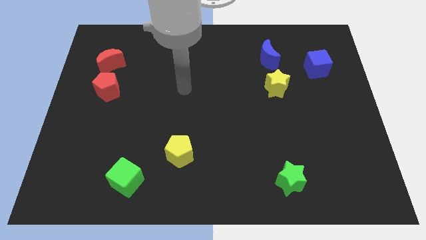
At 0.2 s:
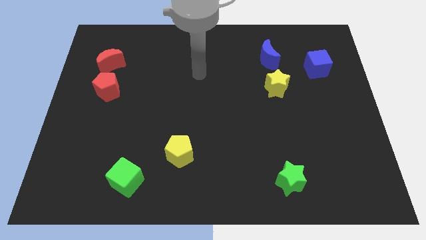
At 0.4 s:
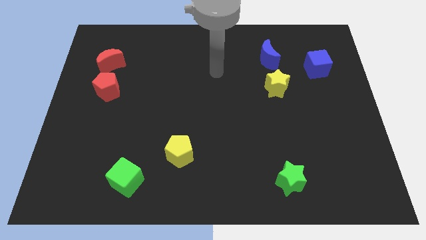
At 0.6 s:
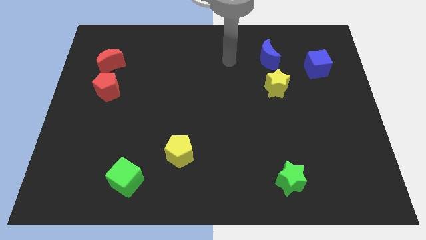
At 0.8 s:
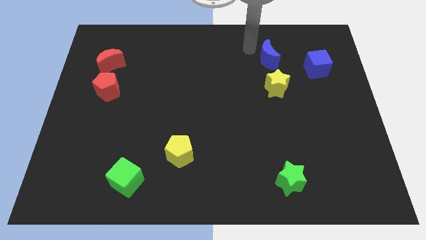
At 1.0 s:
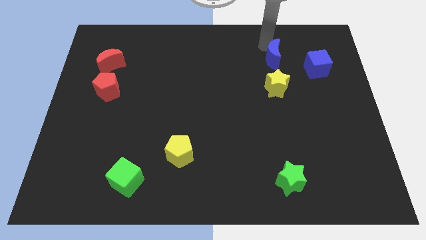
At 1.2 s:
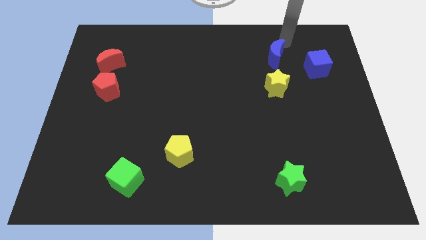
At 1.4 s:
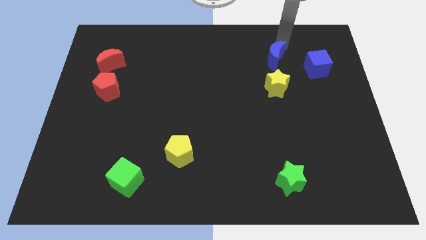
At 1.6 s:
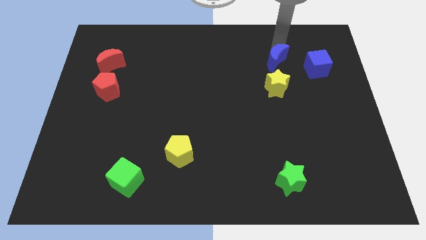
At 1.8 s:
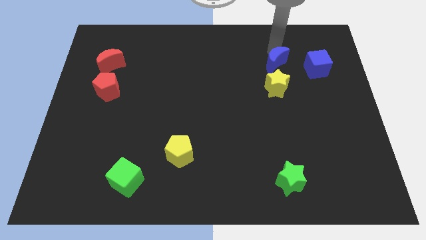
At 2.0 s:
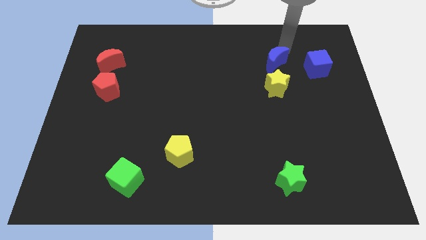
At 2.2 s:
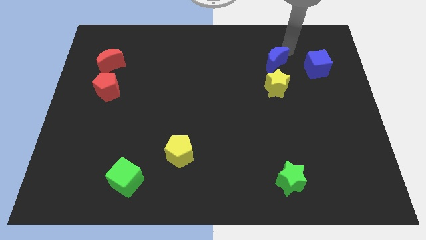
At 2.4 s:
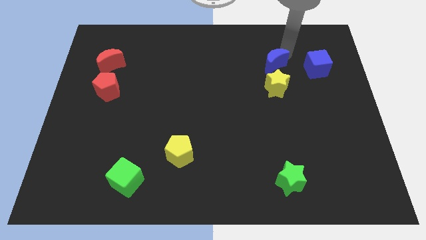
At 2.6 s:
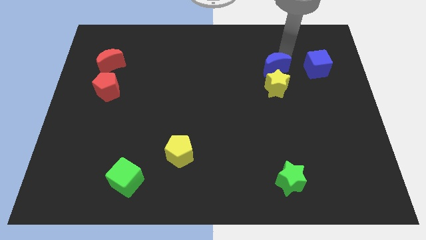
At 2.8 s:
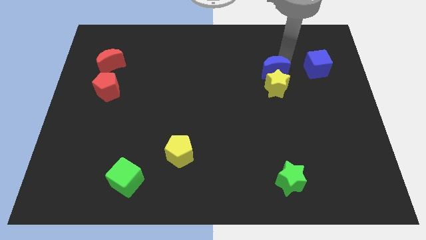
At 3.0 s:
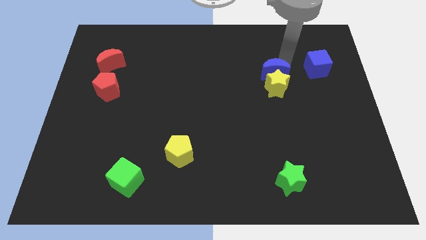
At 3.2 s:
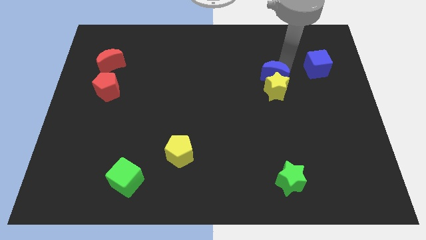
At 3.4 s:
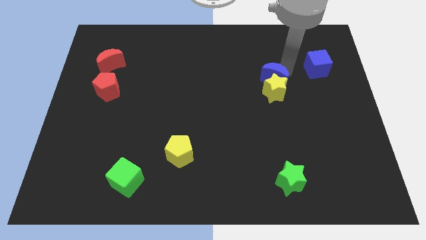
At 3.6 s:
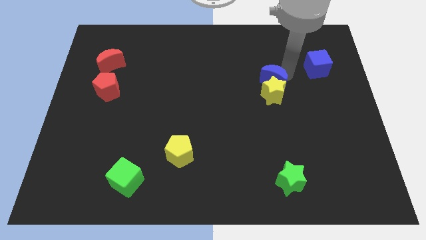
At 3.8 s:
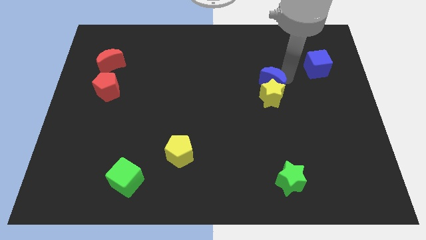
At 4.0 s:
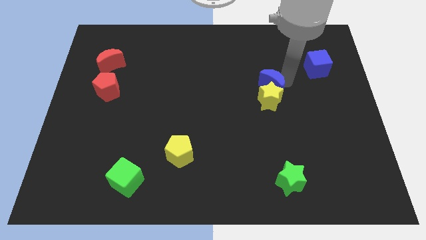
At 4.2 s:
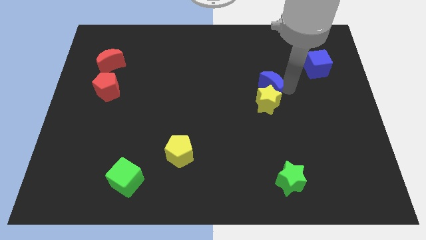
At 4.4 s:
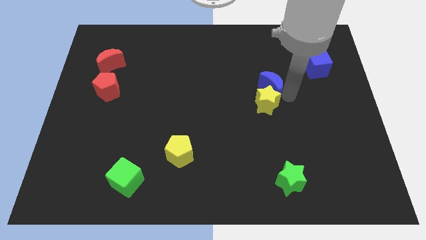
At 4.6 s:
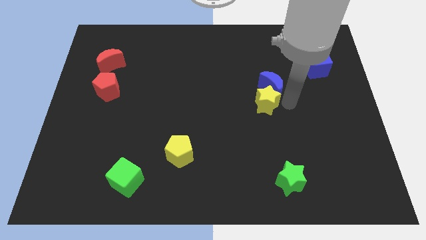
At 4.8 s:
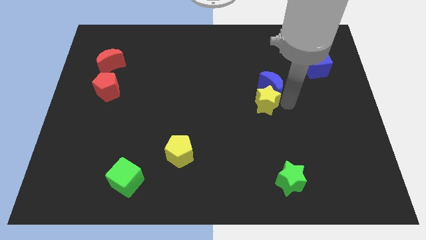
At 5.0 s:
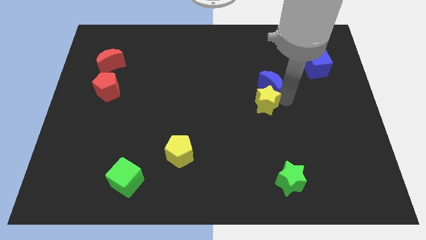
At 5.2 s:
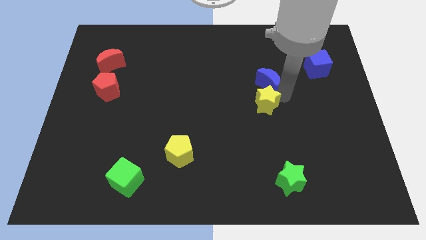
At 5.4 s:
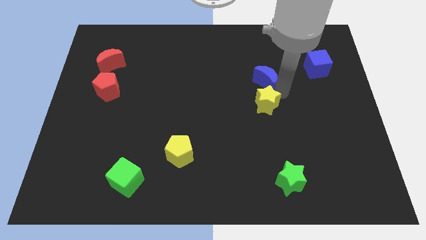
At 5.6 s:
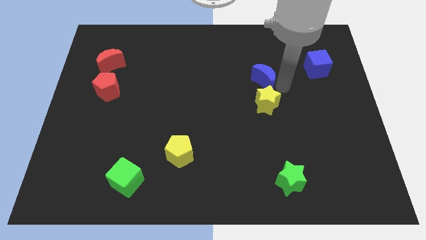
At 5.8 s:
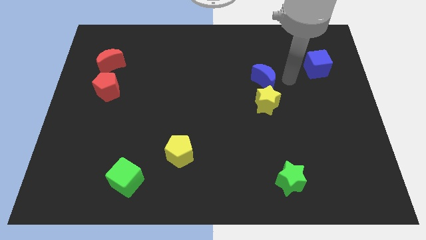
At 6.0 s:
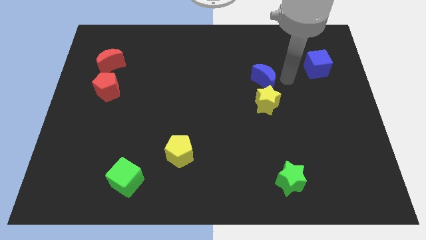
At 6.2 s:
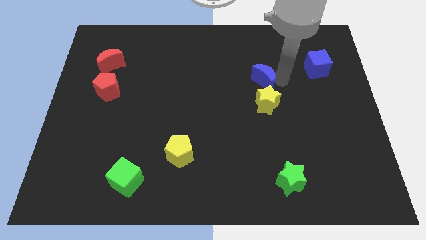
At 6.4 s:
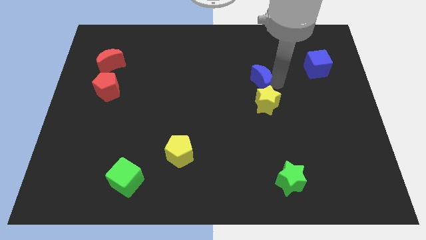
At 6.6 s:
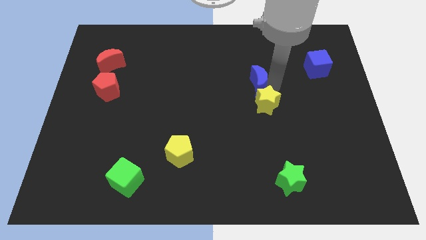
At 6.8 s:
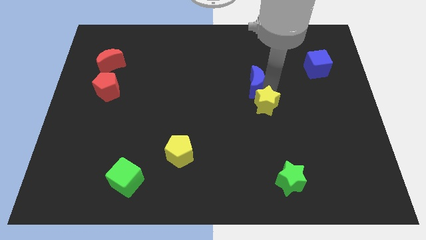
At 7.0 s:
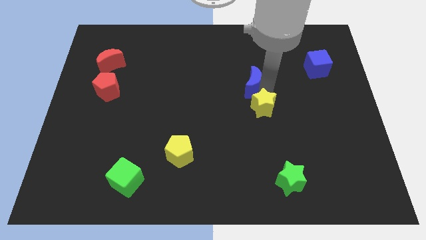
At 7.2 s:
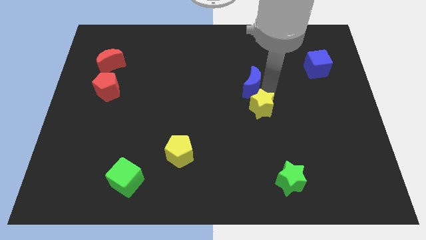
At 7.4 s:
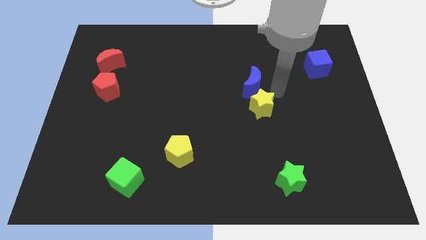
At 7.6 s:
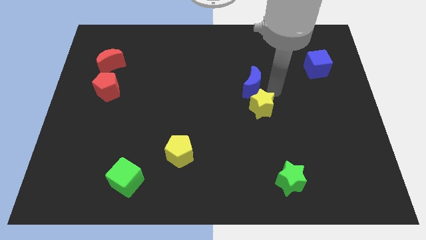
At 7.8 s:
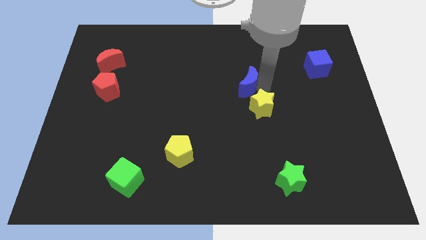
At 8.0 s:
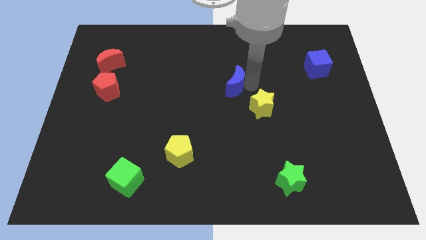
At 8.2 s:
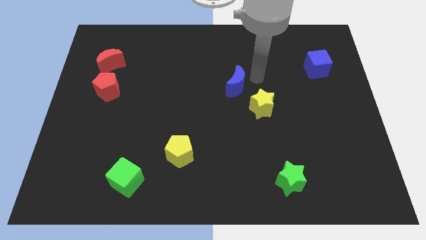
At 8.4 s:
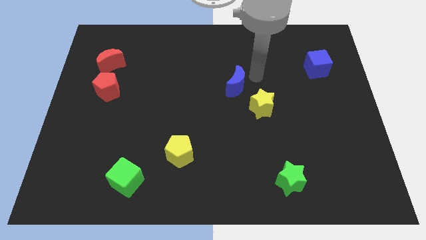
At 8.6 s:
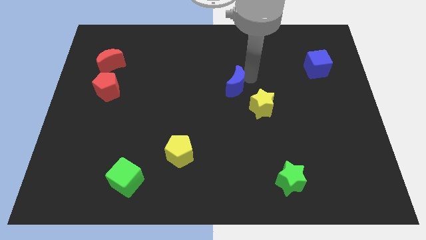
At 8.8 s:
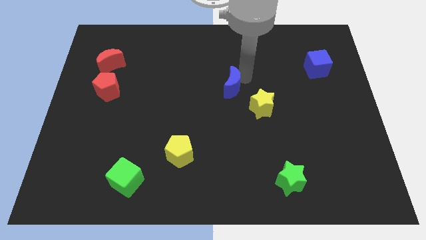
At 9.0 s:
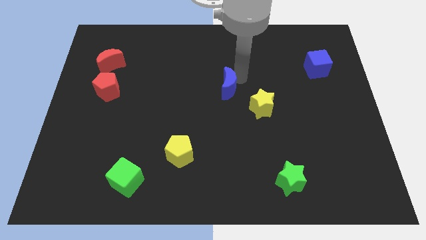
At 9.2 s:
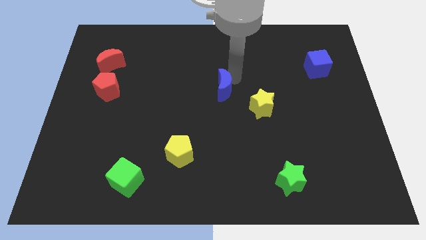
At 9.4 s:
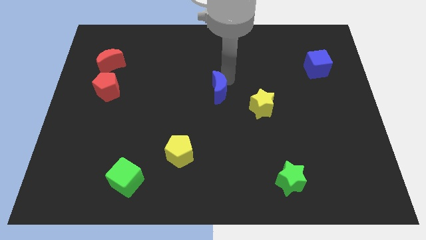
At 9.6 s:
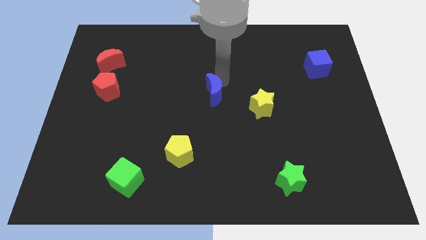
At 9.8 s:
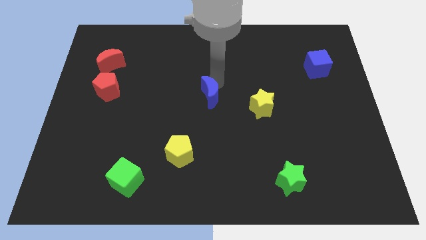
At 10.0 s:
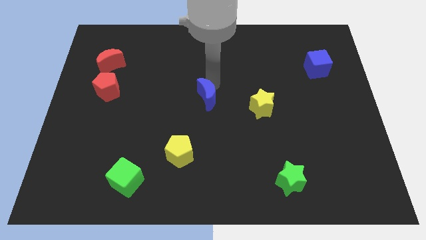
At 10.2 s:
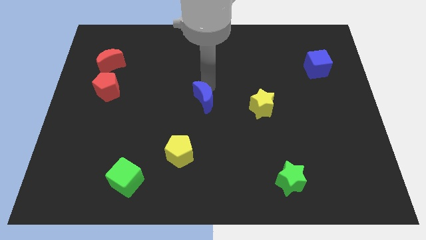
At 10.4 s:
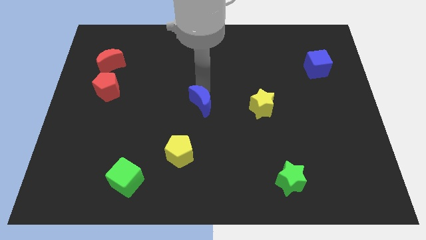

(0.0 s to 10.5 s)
slide the blue moon to the top of the yellow pentagon

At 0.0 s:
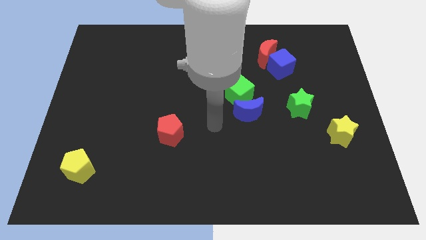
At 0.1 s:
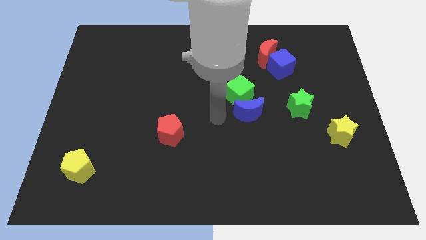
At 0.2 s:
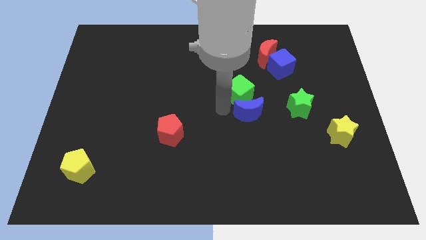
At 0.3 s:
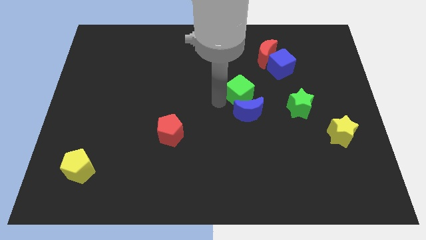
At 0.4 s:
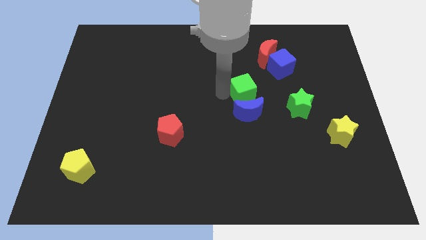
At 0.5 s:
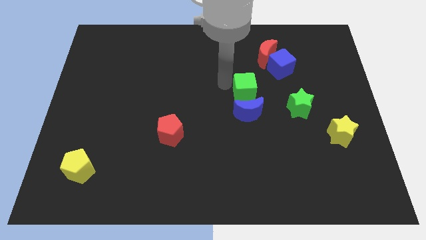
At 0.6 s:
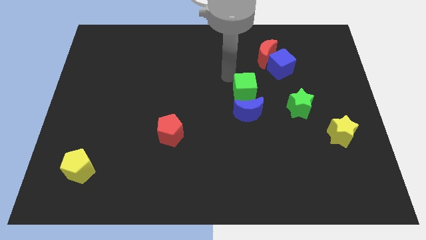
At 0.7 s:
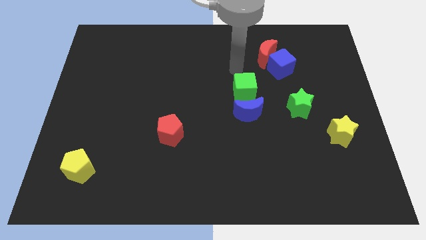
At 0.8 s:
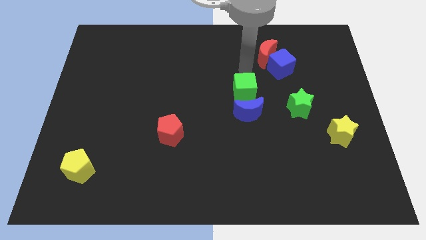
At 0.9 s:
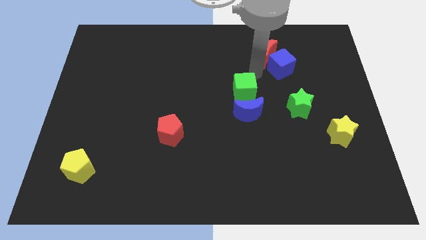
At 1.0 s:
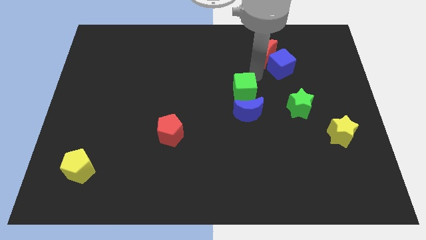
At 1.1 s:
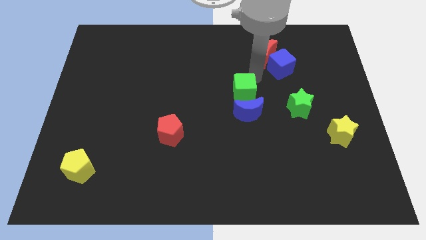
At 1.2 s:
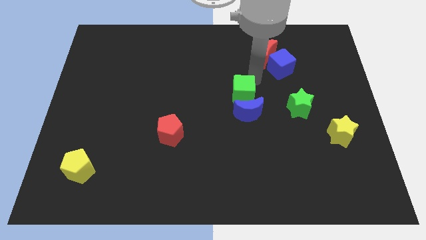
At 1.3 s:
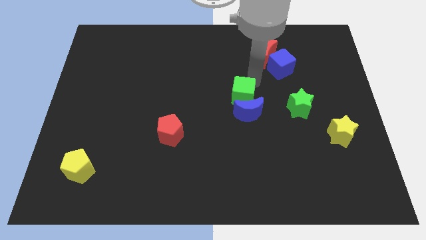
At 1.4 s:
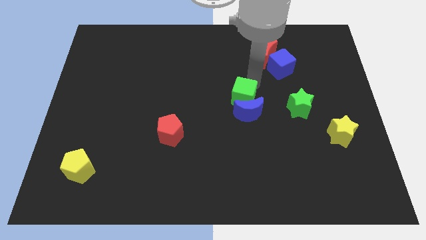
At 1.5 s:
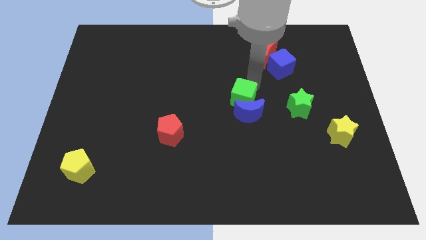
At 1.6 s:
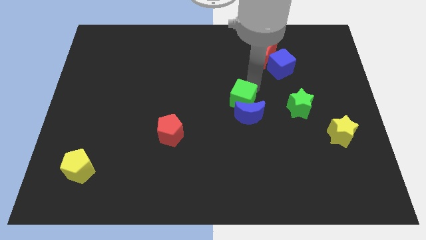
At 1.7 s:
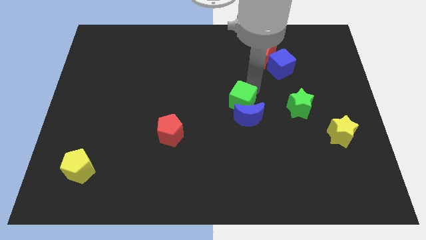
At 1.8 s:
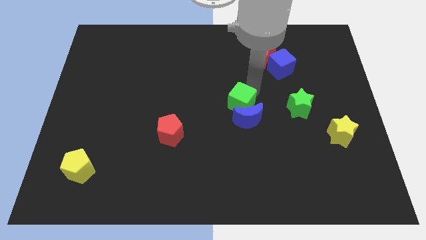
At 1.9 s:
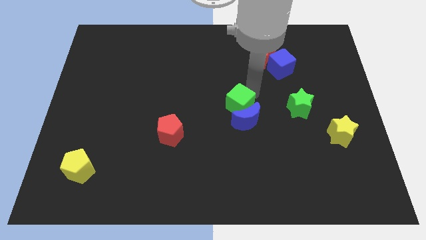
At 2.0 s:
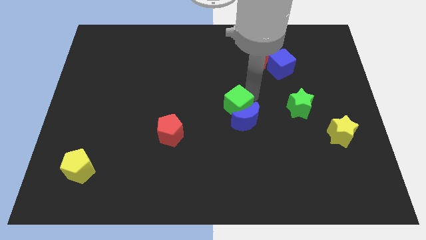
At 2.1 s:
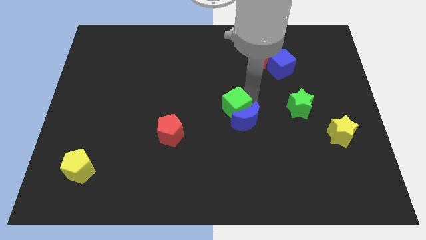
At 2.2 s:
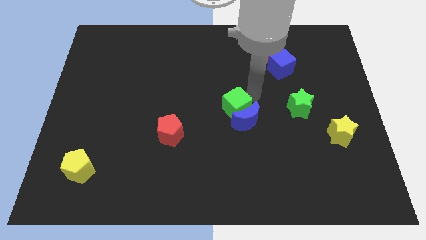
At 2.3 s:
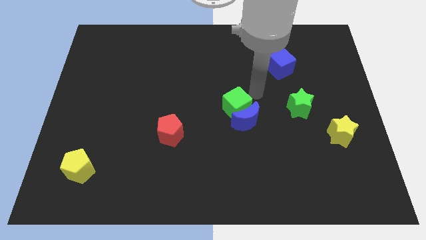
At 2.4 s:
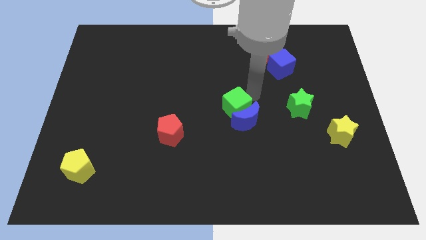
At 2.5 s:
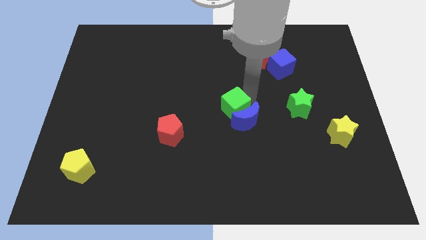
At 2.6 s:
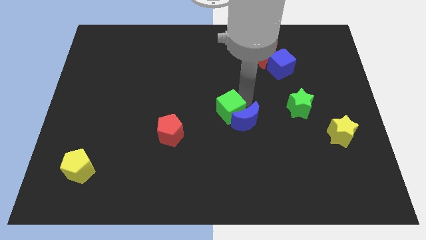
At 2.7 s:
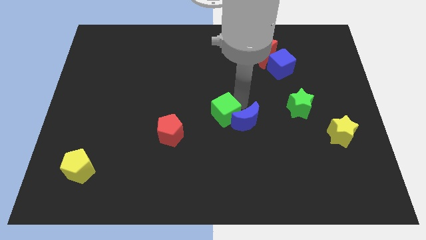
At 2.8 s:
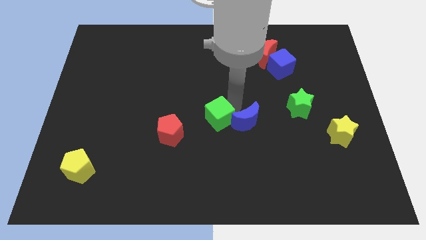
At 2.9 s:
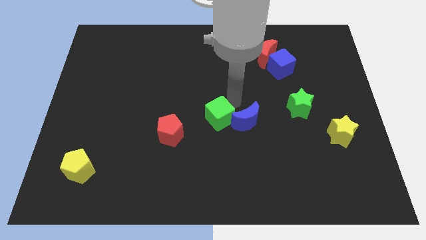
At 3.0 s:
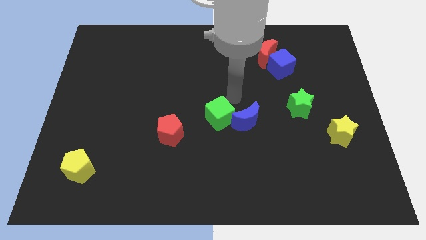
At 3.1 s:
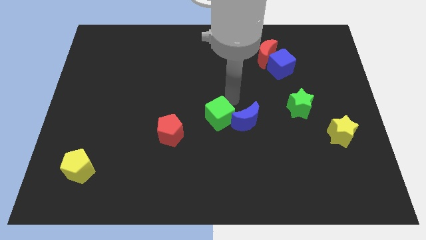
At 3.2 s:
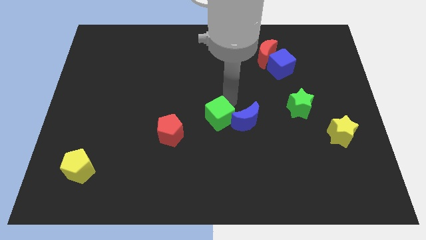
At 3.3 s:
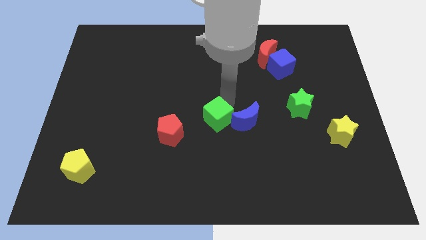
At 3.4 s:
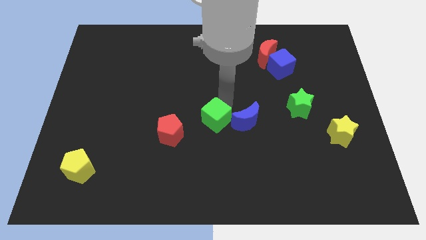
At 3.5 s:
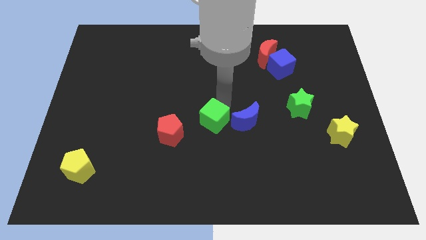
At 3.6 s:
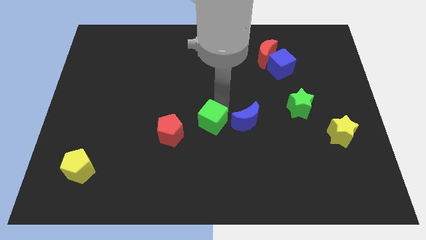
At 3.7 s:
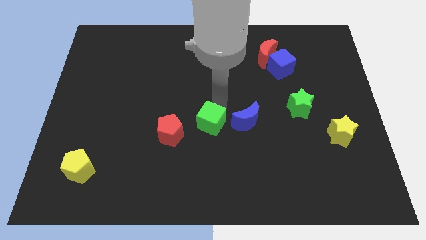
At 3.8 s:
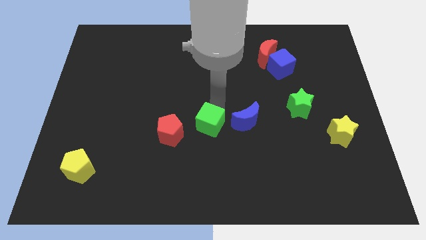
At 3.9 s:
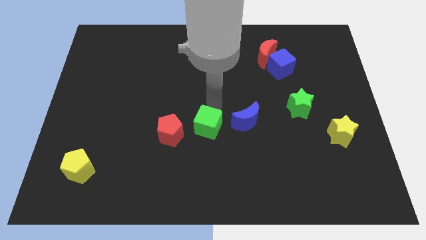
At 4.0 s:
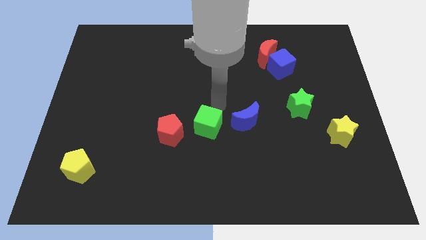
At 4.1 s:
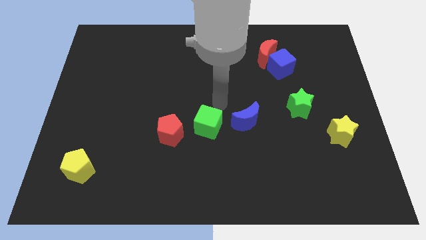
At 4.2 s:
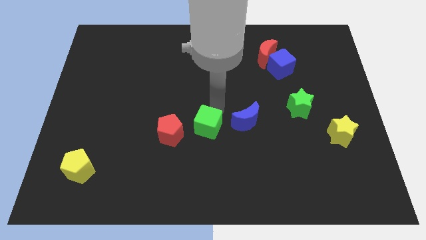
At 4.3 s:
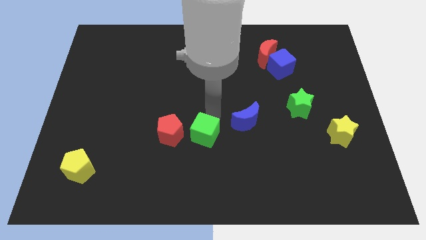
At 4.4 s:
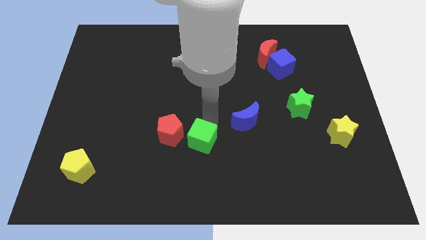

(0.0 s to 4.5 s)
slide the green cube to the bottom right of the red pentagon
